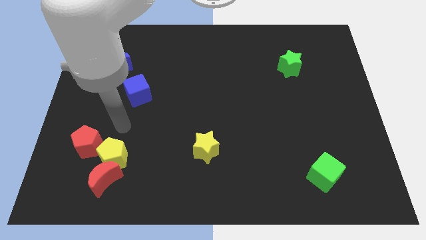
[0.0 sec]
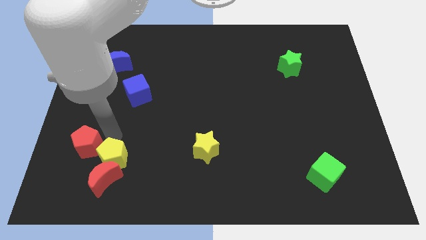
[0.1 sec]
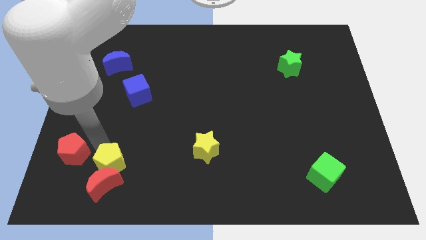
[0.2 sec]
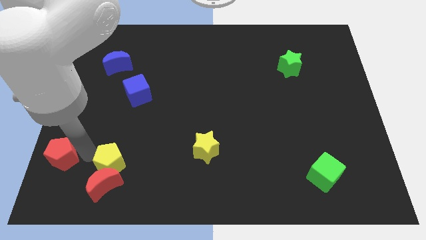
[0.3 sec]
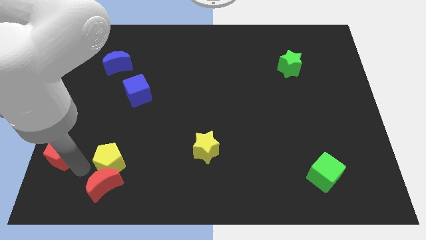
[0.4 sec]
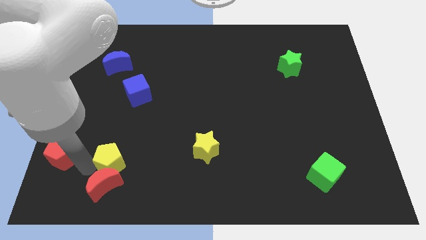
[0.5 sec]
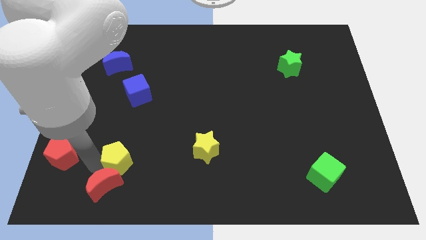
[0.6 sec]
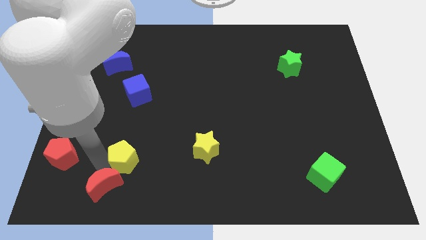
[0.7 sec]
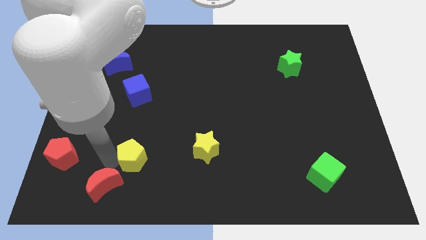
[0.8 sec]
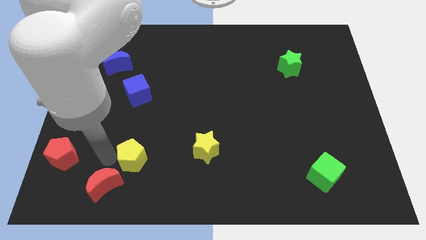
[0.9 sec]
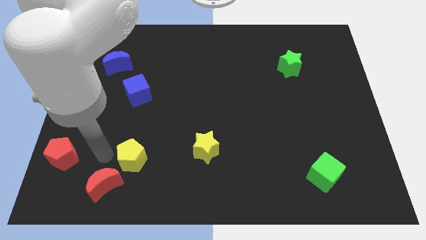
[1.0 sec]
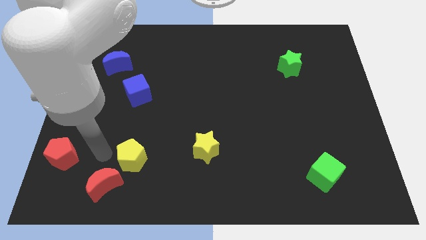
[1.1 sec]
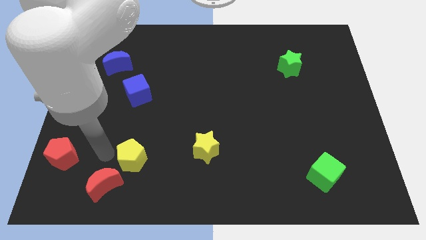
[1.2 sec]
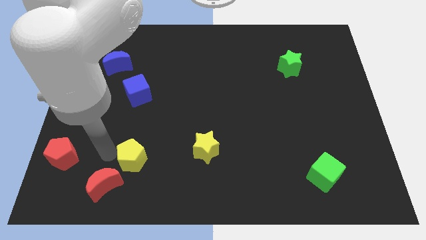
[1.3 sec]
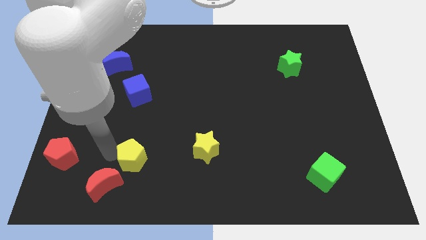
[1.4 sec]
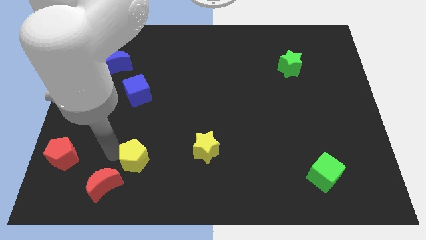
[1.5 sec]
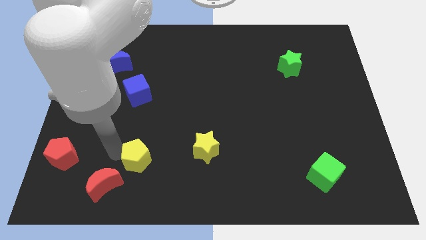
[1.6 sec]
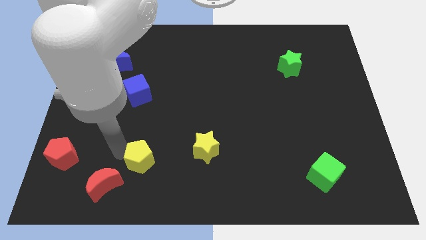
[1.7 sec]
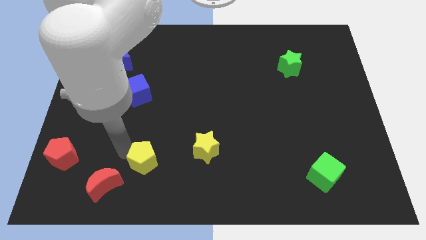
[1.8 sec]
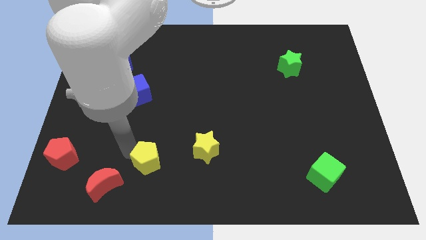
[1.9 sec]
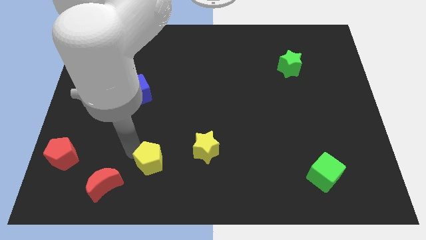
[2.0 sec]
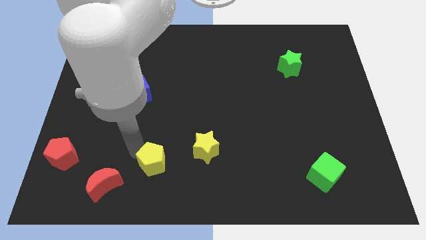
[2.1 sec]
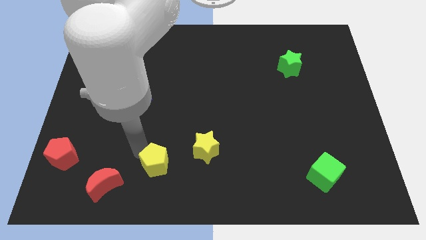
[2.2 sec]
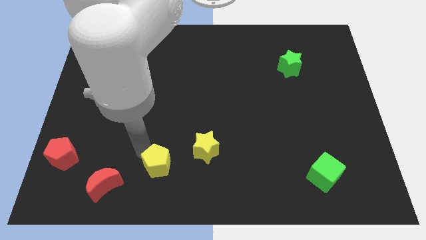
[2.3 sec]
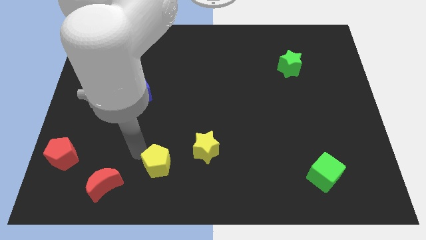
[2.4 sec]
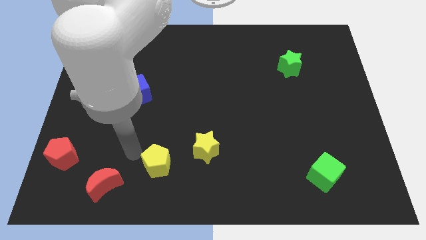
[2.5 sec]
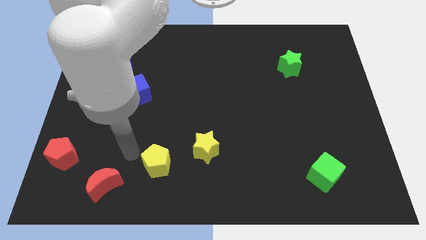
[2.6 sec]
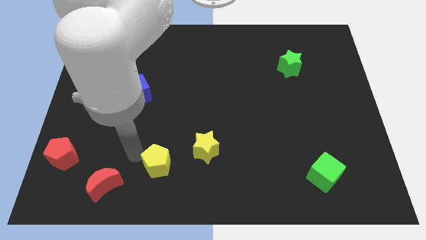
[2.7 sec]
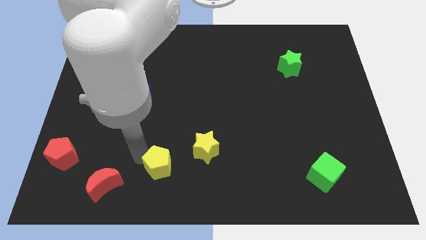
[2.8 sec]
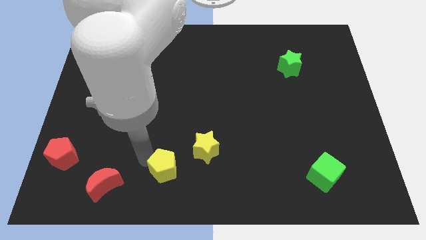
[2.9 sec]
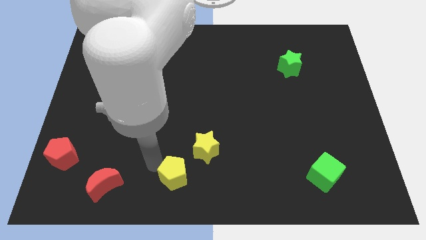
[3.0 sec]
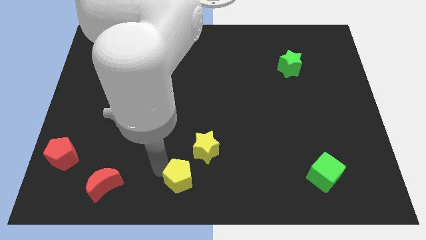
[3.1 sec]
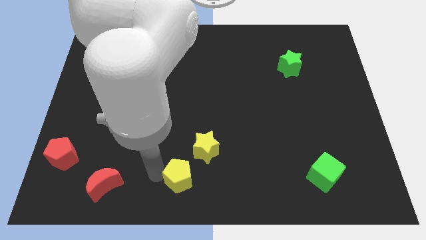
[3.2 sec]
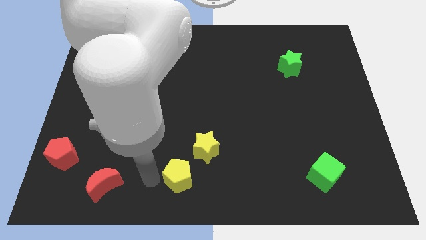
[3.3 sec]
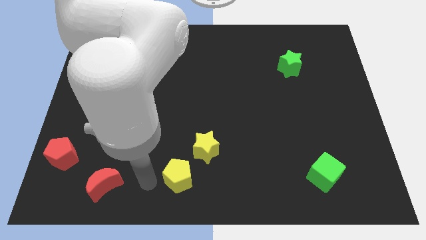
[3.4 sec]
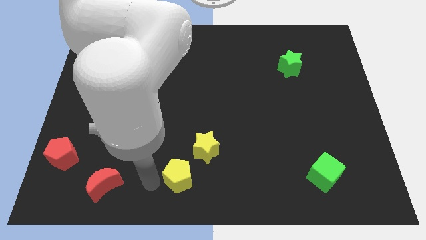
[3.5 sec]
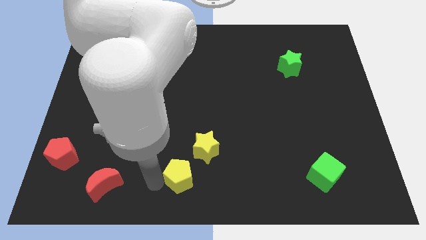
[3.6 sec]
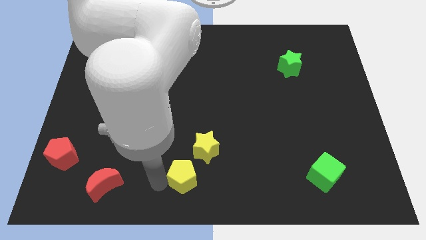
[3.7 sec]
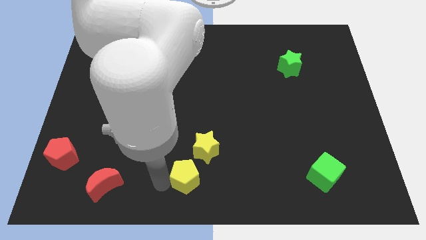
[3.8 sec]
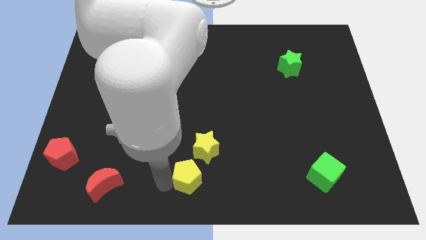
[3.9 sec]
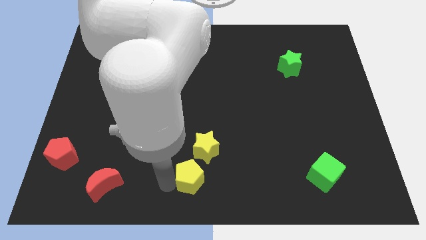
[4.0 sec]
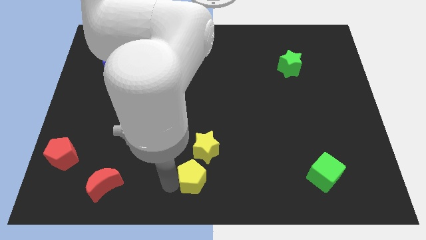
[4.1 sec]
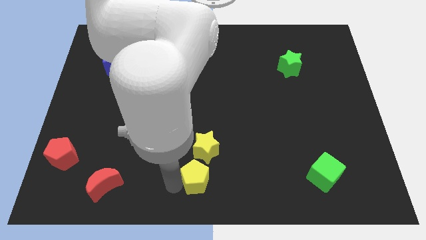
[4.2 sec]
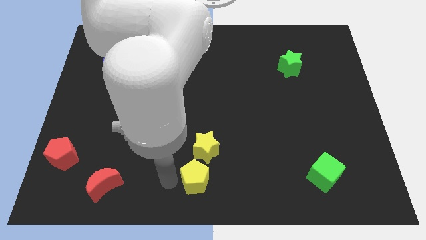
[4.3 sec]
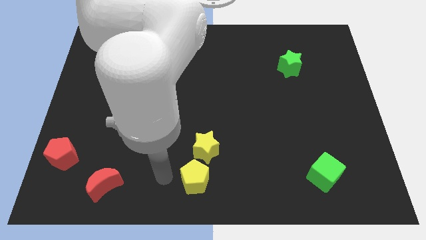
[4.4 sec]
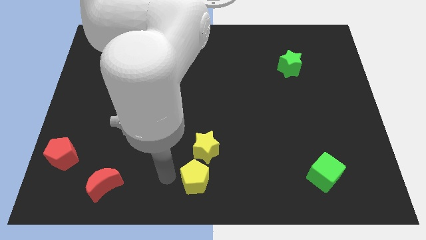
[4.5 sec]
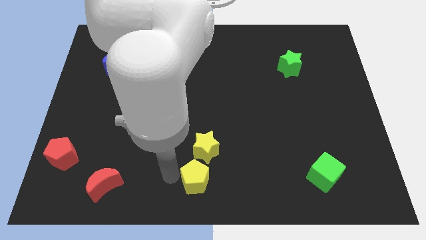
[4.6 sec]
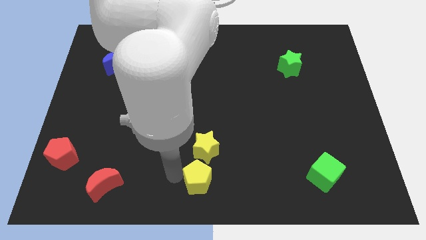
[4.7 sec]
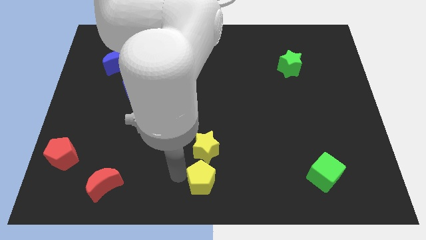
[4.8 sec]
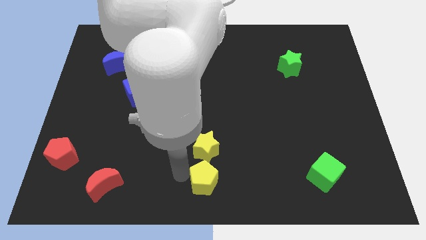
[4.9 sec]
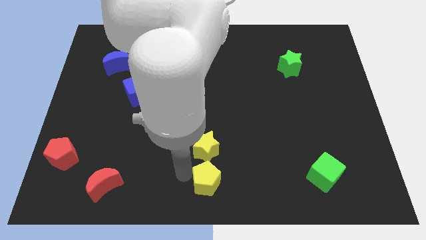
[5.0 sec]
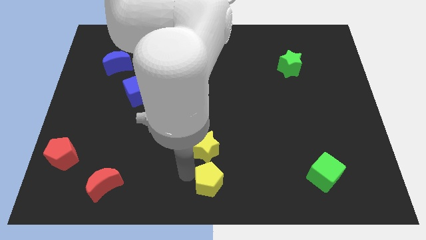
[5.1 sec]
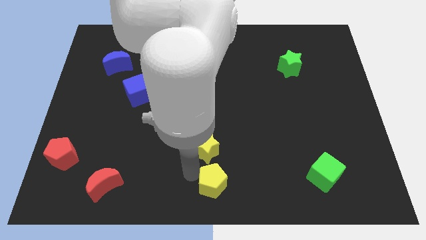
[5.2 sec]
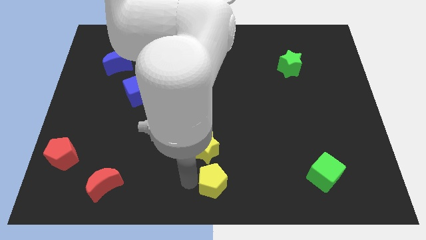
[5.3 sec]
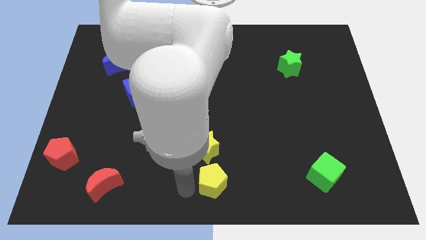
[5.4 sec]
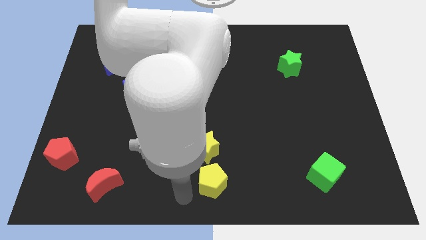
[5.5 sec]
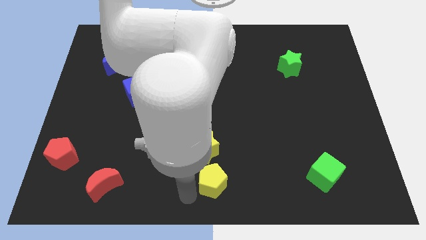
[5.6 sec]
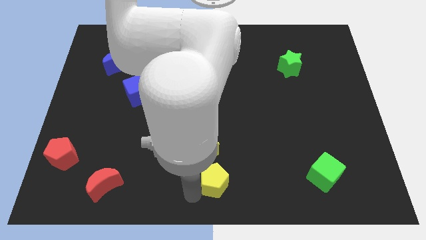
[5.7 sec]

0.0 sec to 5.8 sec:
push the yellow pentagon to the right

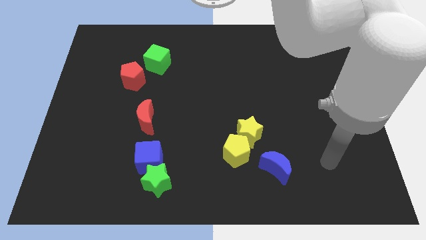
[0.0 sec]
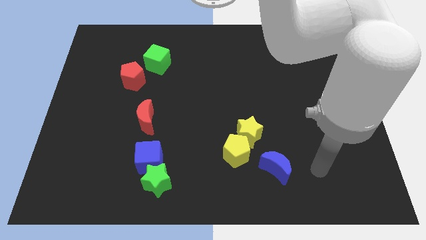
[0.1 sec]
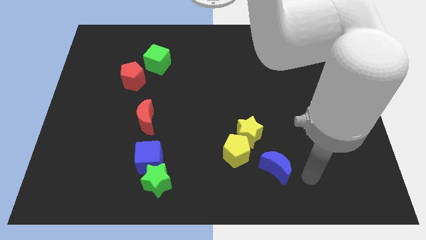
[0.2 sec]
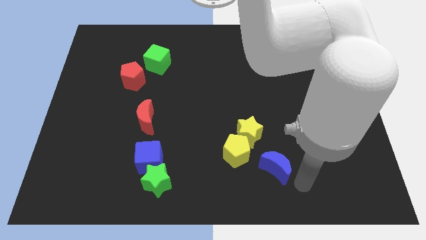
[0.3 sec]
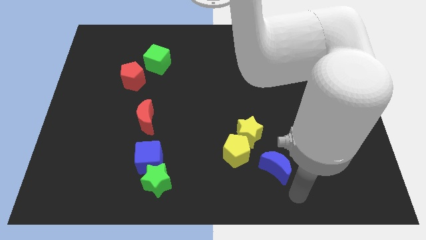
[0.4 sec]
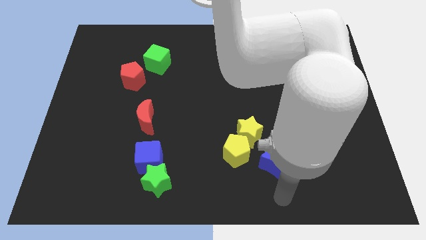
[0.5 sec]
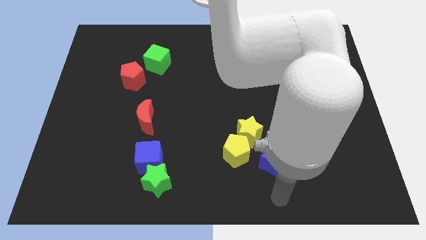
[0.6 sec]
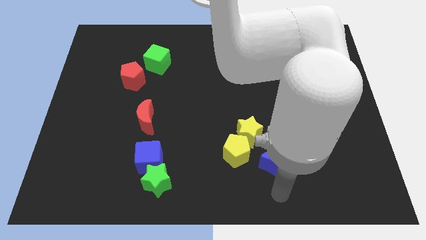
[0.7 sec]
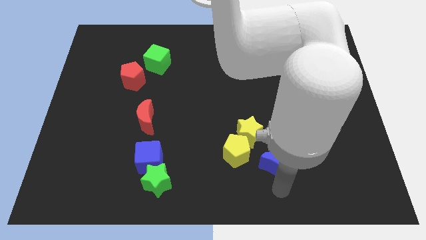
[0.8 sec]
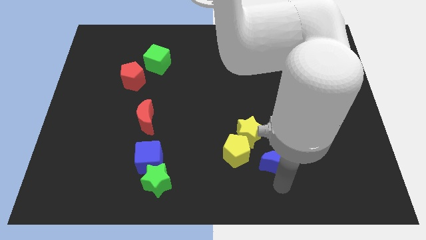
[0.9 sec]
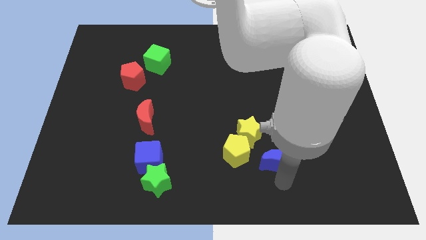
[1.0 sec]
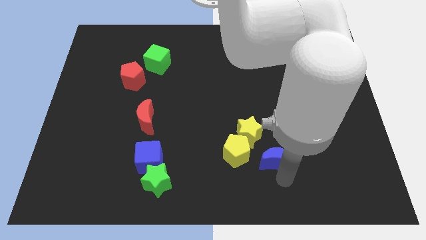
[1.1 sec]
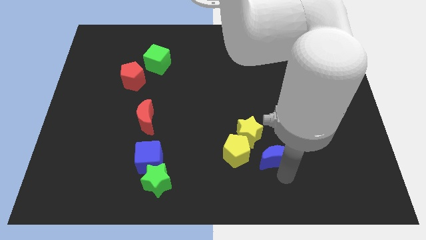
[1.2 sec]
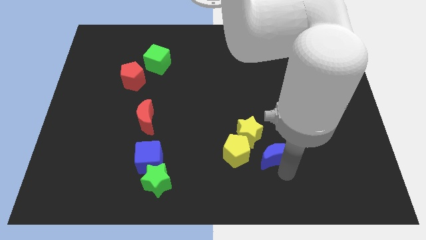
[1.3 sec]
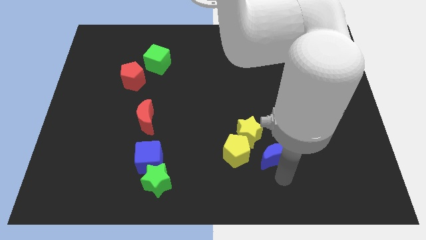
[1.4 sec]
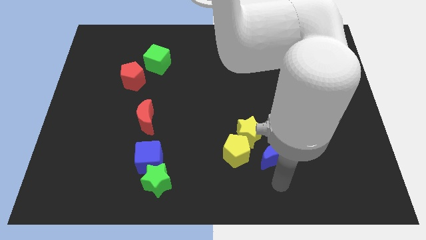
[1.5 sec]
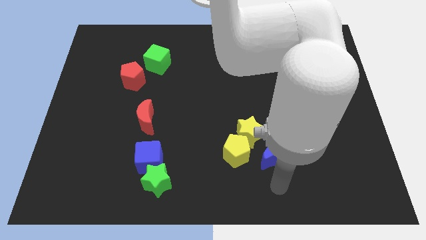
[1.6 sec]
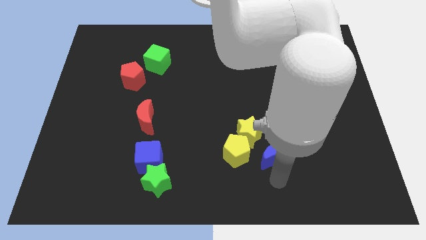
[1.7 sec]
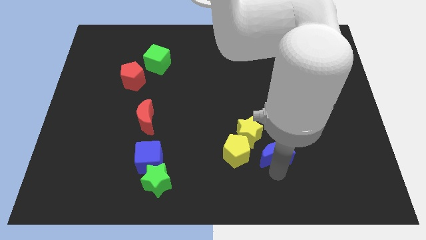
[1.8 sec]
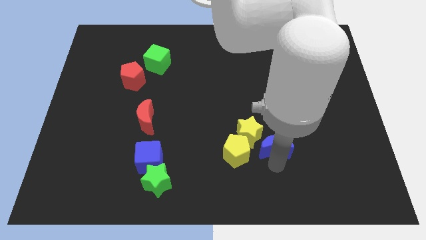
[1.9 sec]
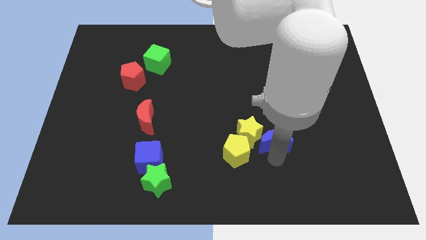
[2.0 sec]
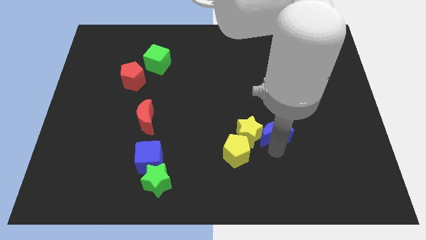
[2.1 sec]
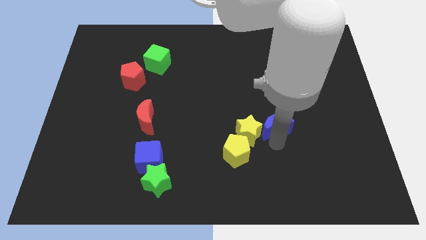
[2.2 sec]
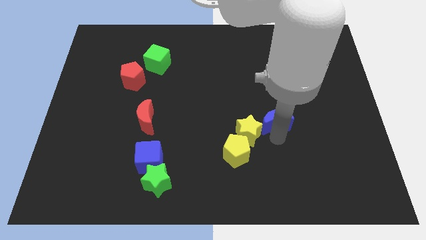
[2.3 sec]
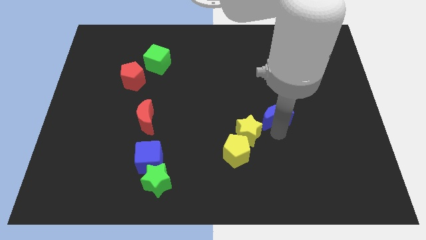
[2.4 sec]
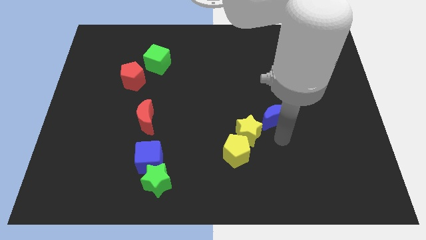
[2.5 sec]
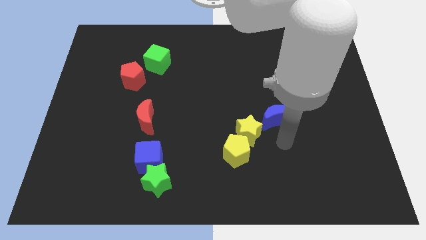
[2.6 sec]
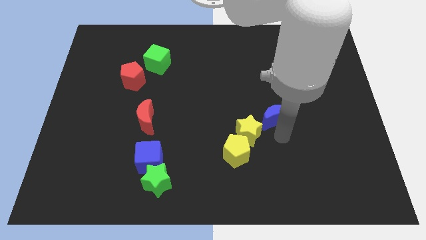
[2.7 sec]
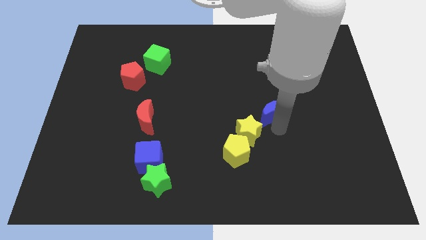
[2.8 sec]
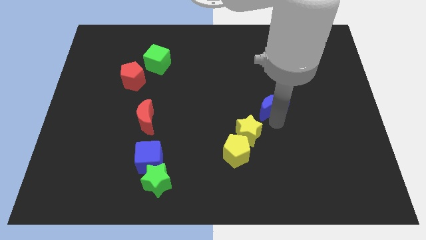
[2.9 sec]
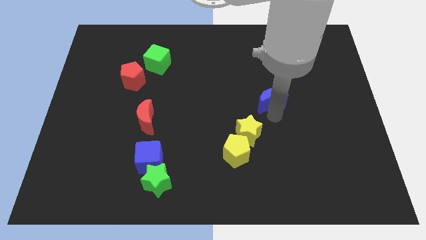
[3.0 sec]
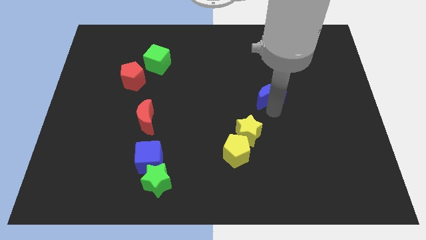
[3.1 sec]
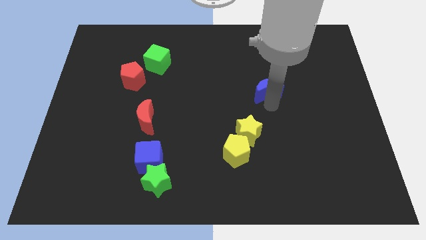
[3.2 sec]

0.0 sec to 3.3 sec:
push the blue moon upwards
